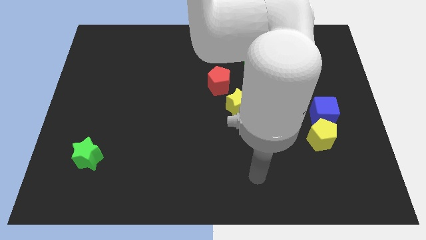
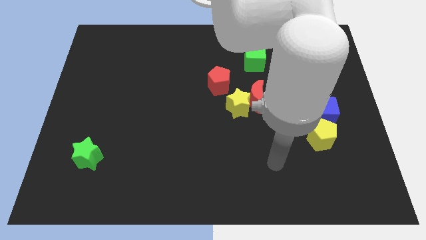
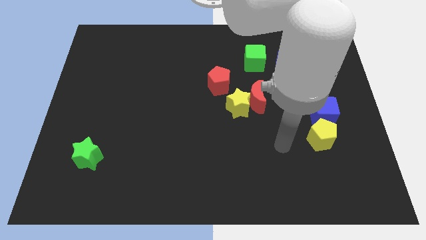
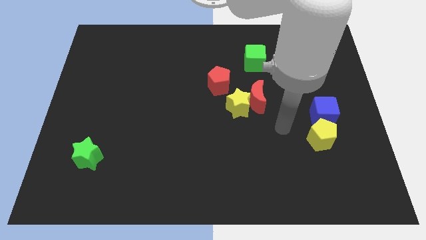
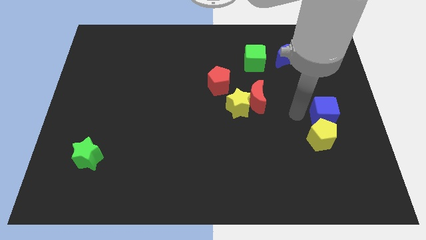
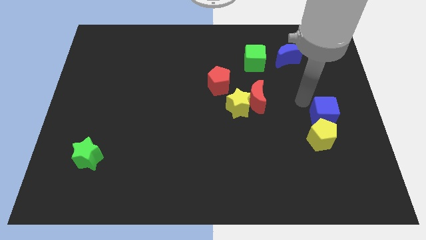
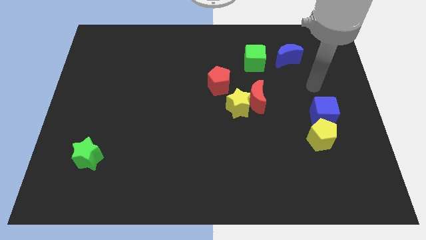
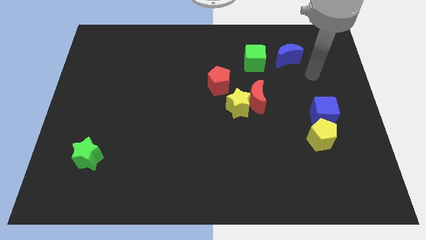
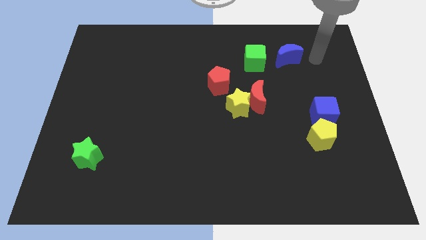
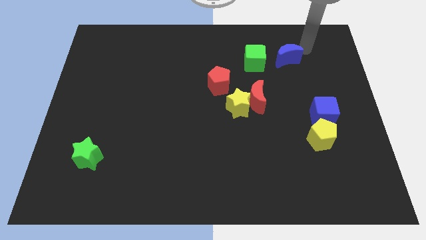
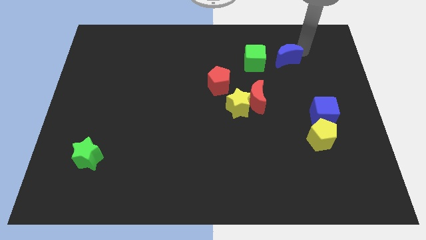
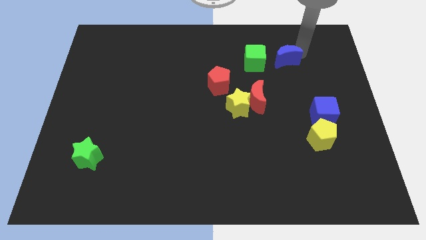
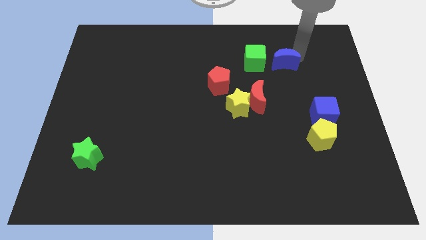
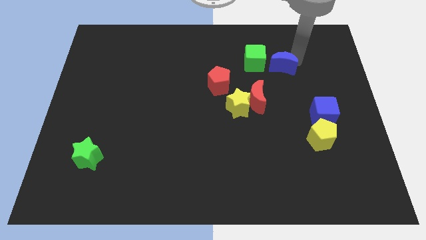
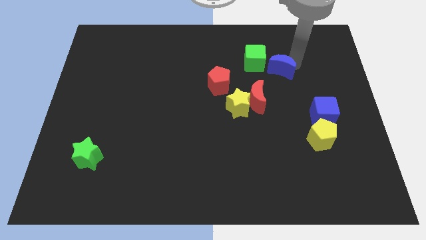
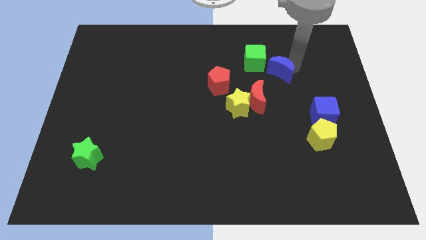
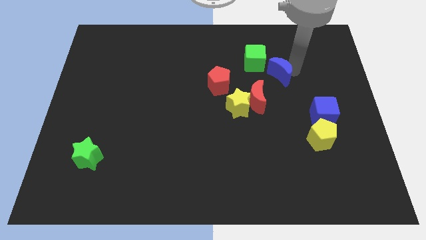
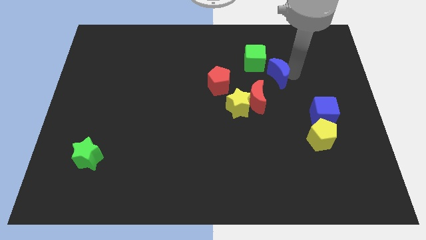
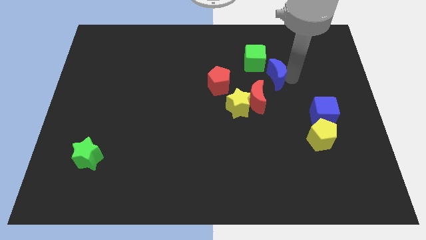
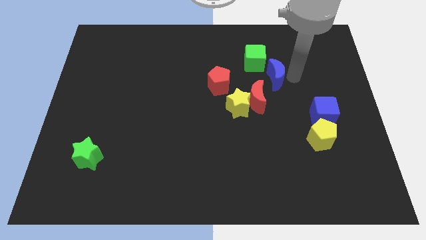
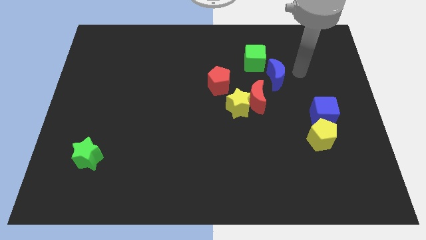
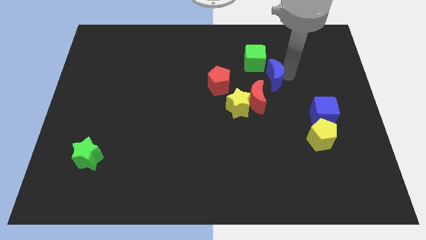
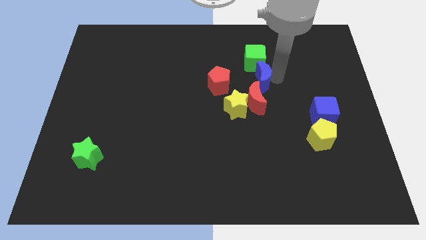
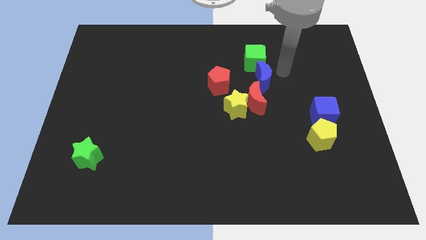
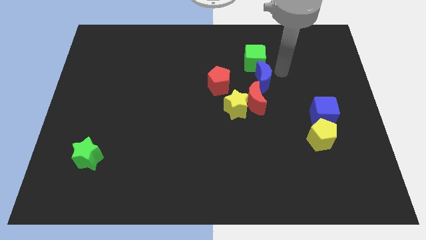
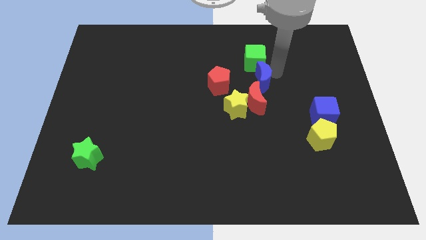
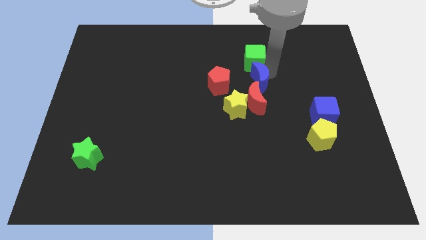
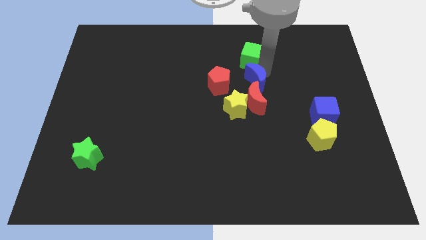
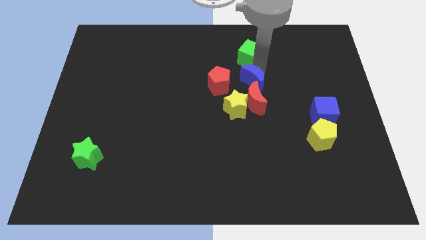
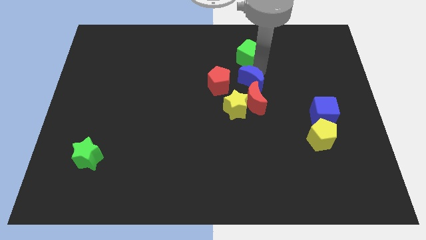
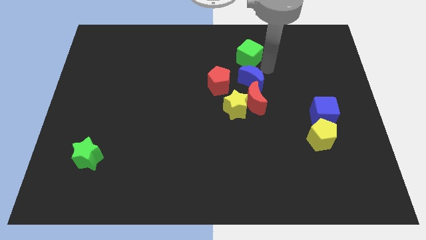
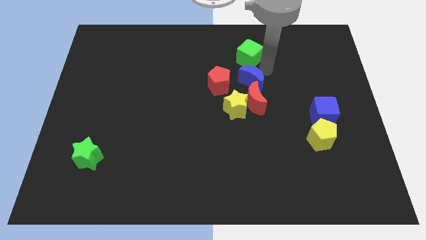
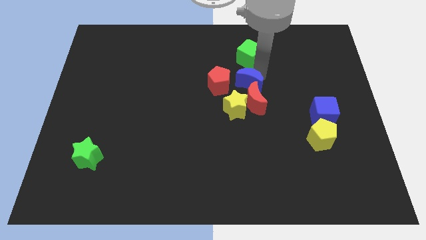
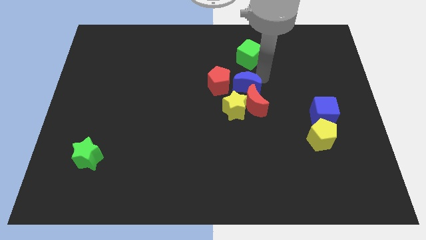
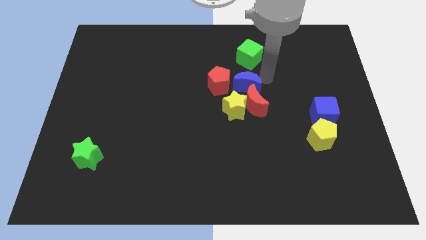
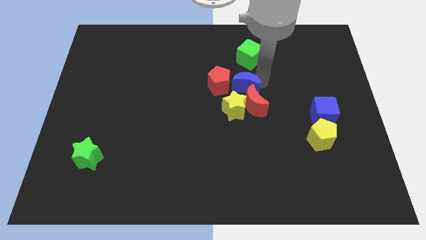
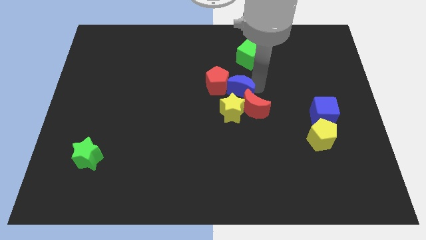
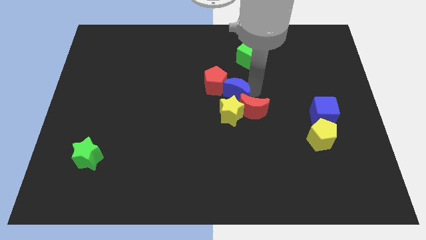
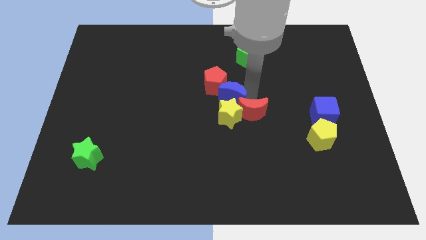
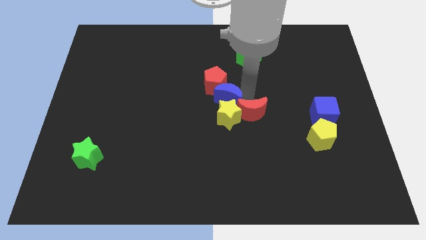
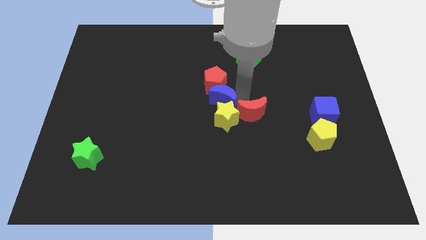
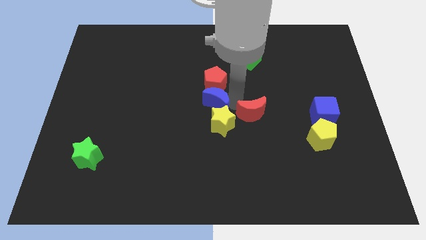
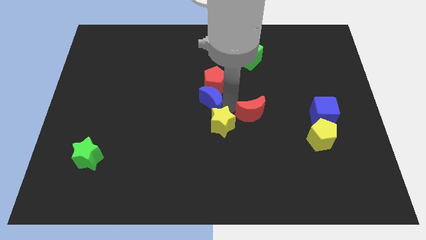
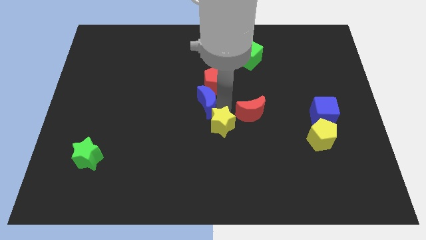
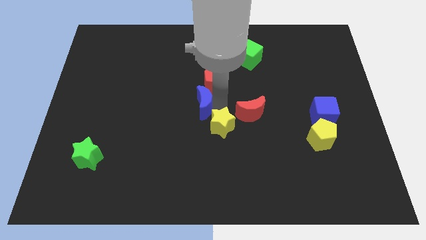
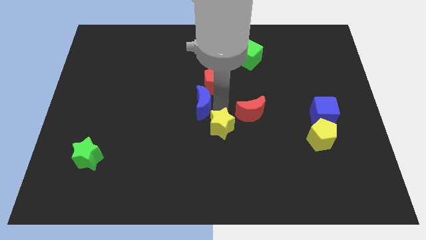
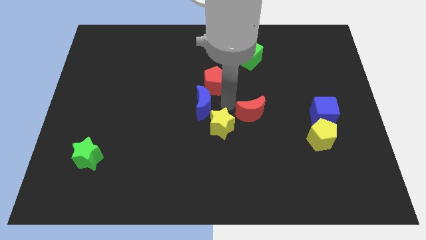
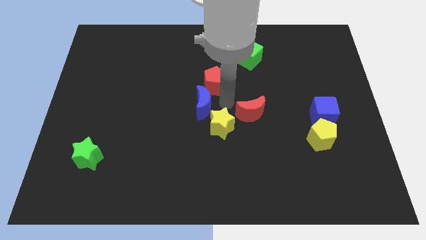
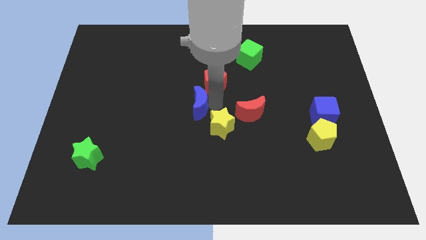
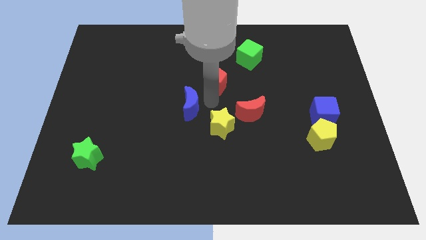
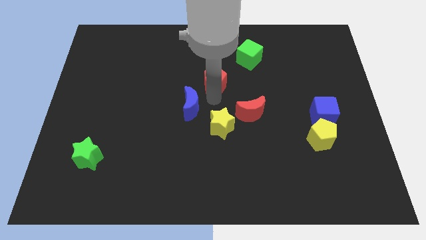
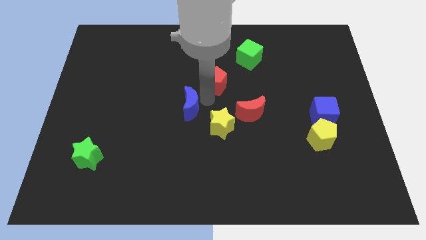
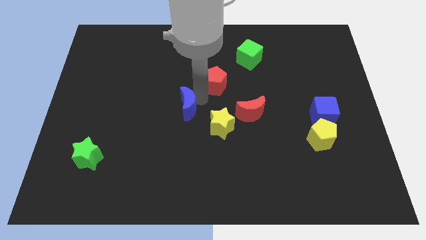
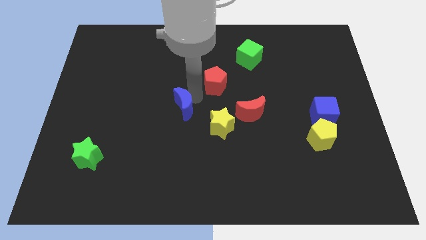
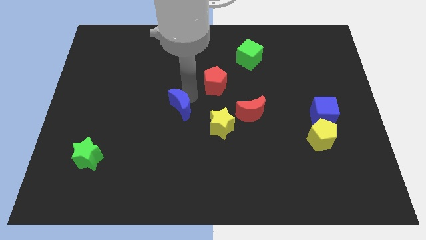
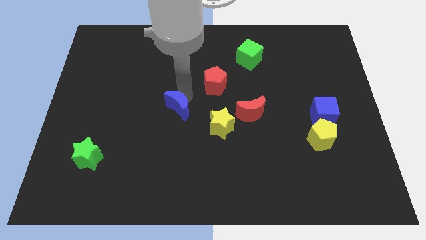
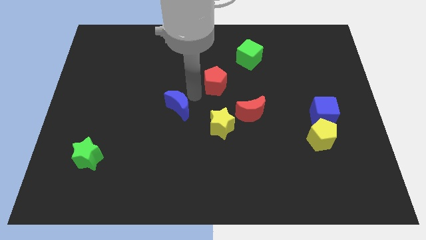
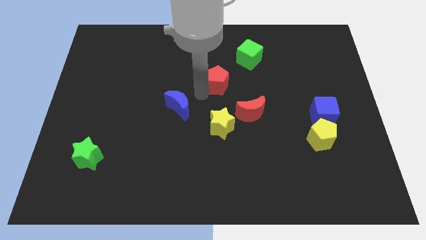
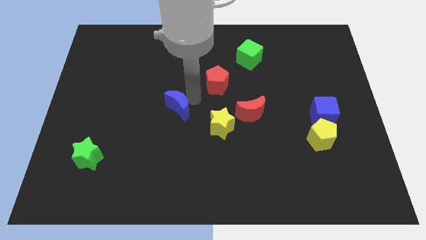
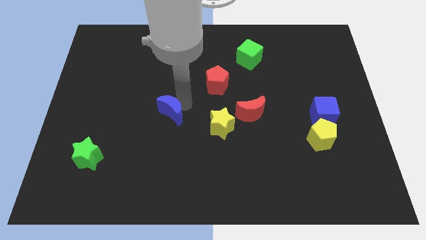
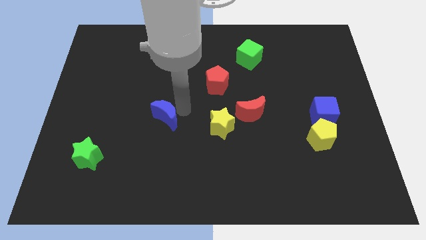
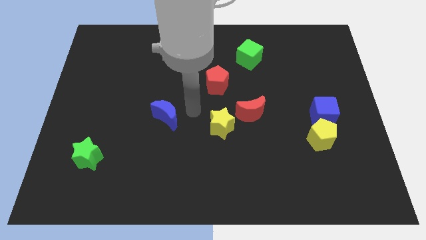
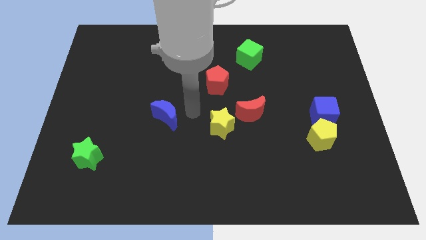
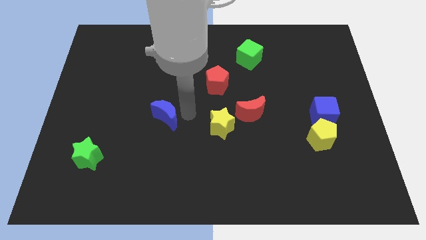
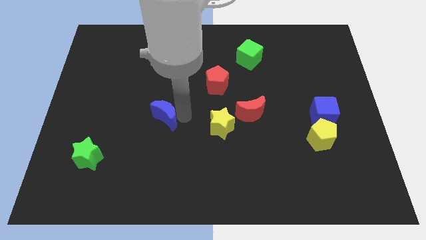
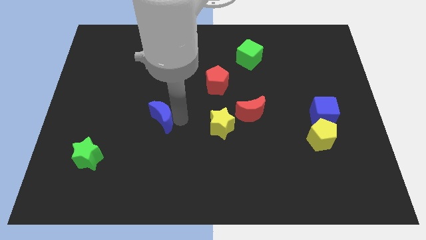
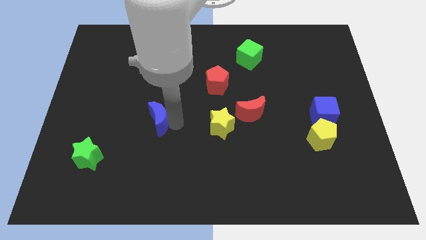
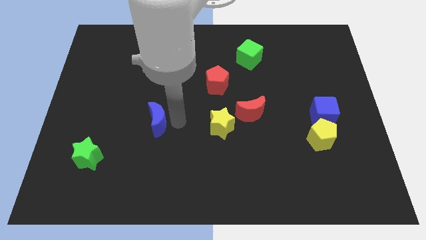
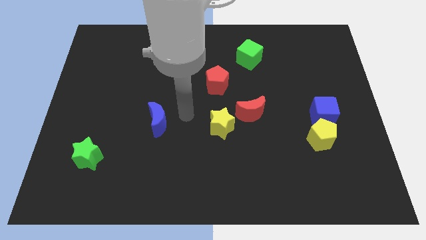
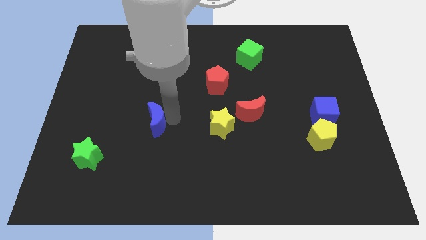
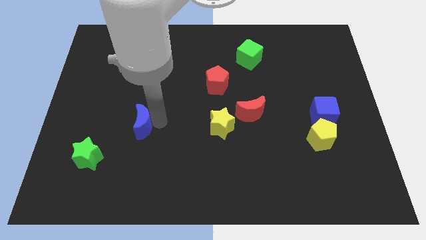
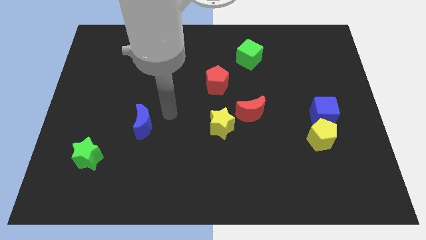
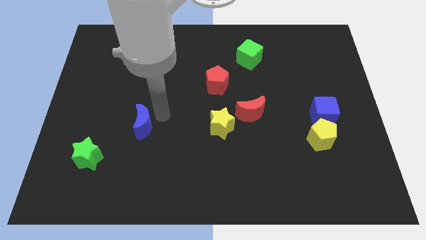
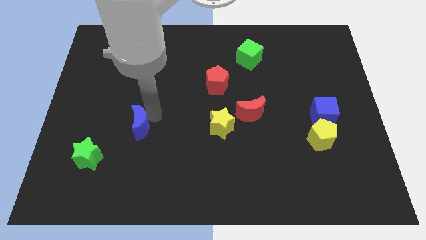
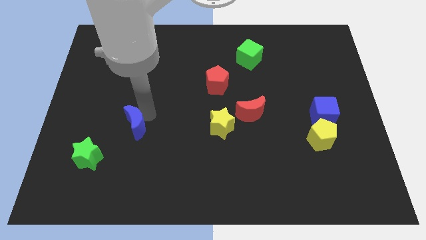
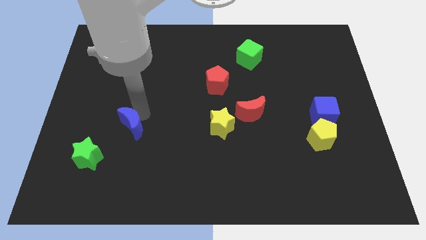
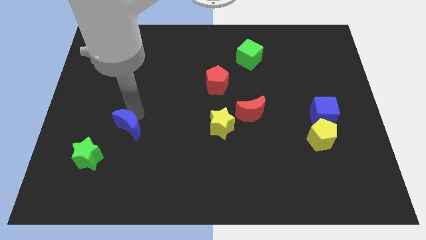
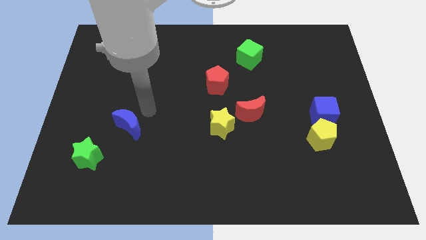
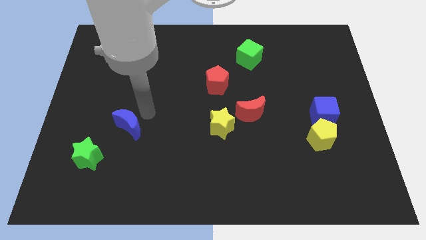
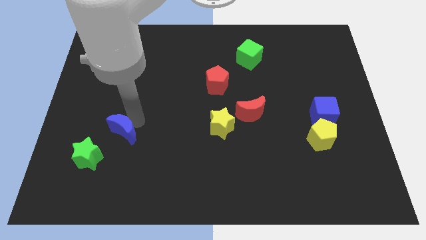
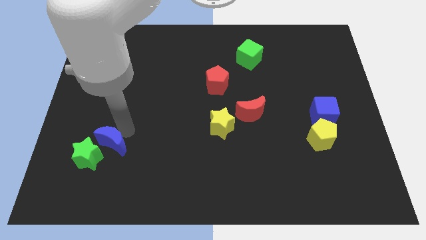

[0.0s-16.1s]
slide the blue moon to the green star
